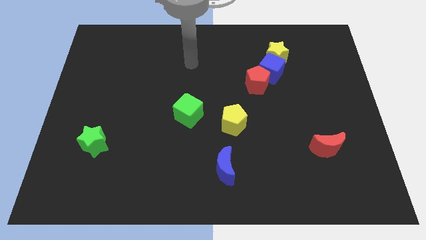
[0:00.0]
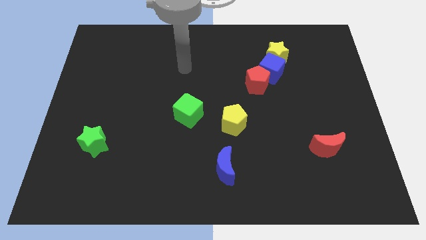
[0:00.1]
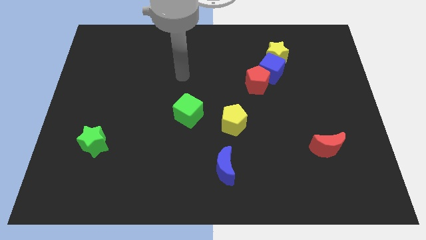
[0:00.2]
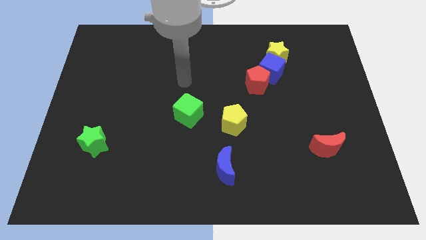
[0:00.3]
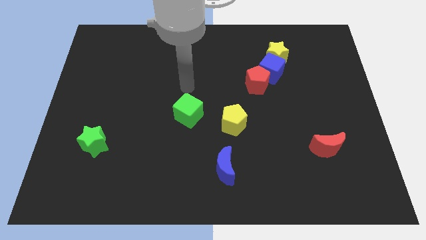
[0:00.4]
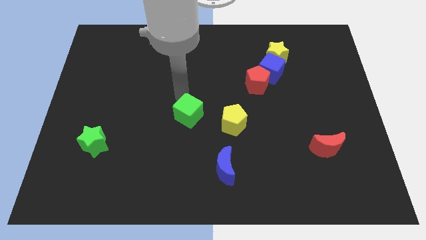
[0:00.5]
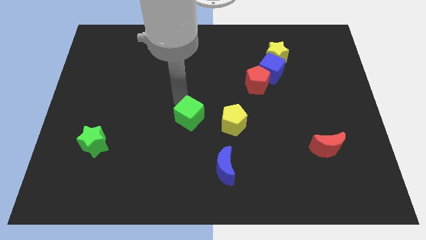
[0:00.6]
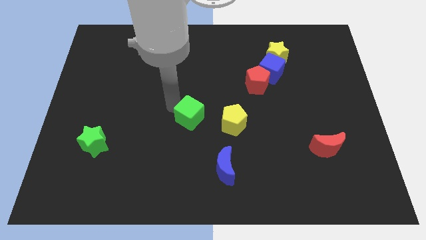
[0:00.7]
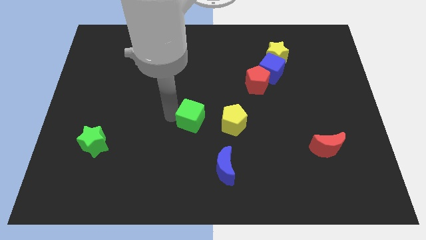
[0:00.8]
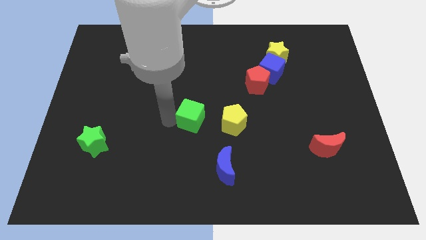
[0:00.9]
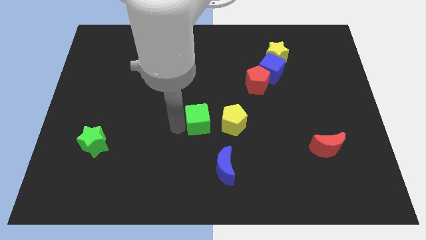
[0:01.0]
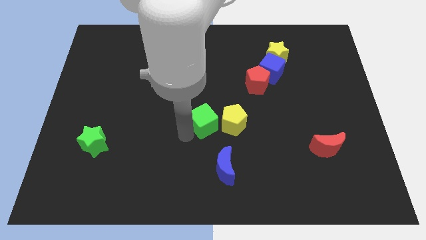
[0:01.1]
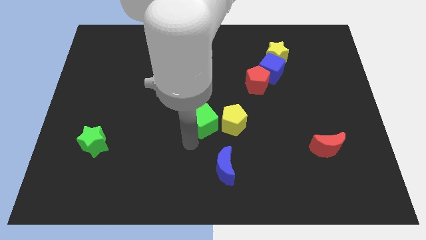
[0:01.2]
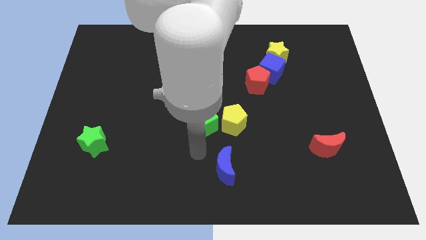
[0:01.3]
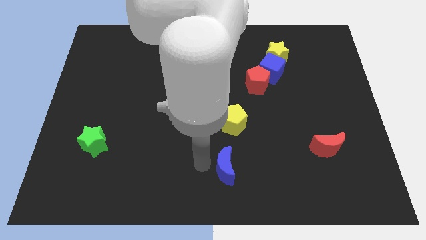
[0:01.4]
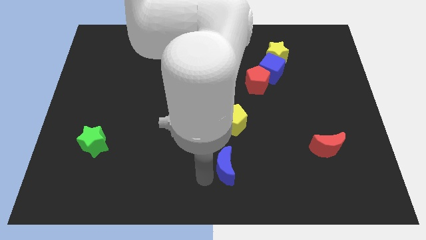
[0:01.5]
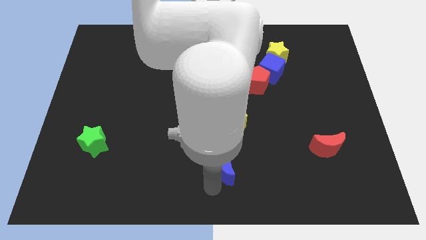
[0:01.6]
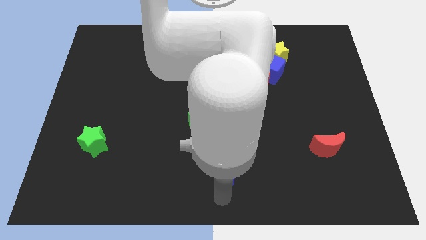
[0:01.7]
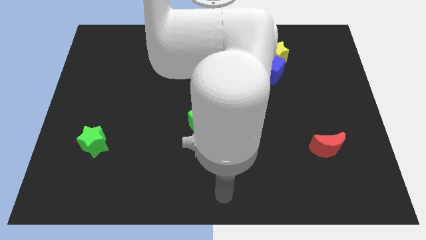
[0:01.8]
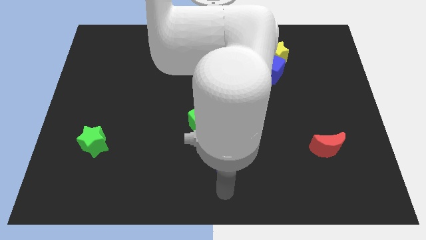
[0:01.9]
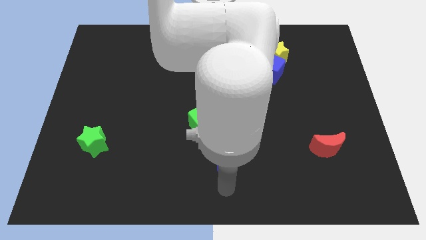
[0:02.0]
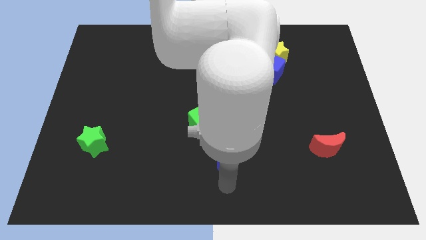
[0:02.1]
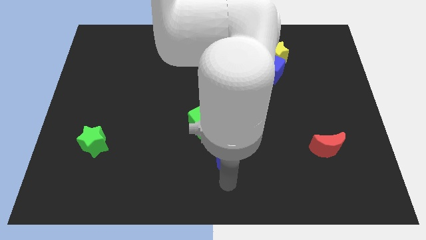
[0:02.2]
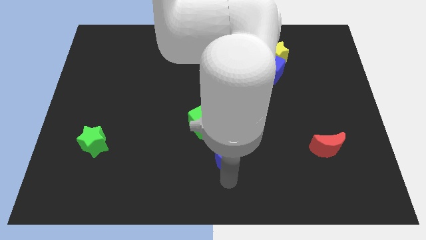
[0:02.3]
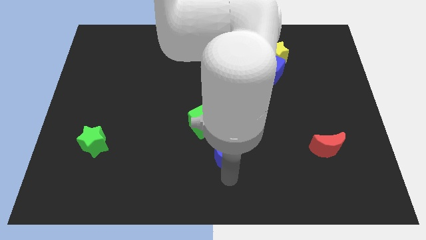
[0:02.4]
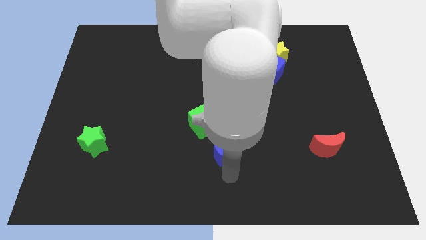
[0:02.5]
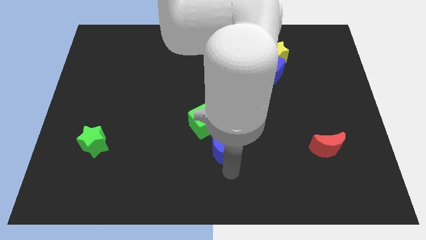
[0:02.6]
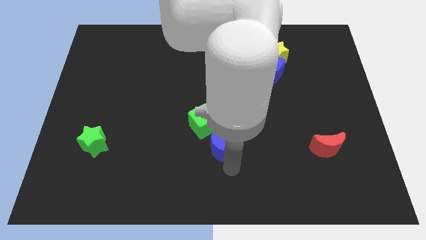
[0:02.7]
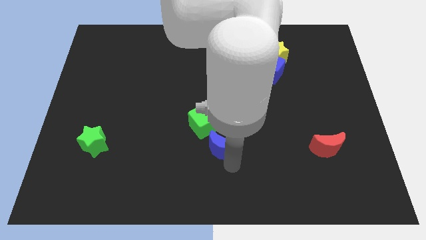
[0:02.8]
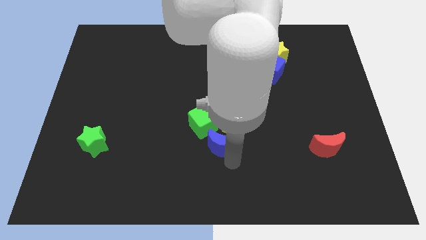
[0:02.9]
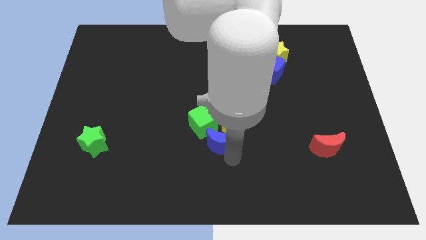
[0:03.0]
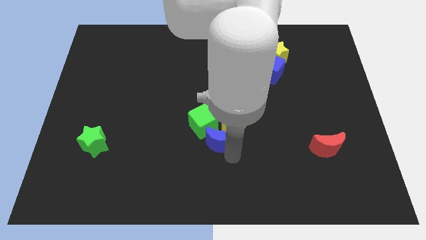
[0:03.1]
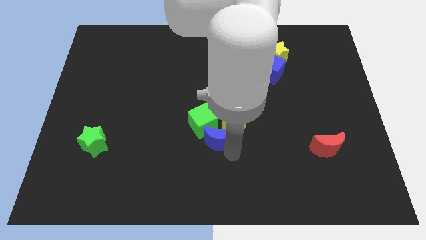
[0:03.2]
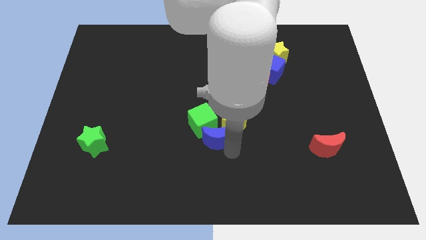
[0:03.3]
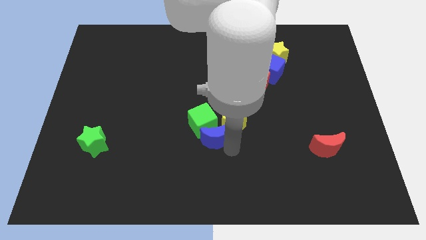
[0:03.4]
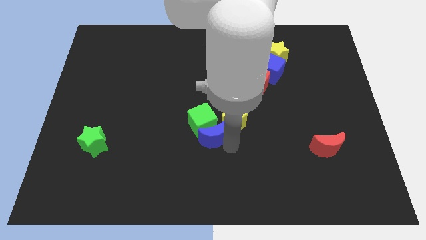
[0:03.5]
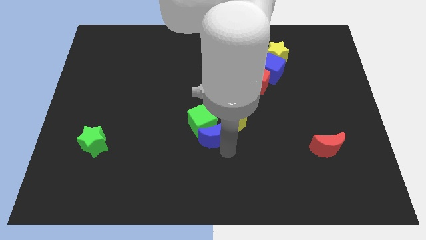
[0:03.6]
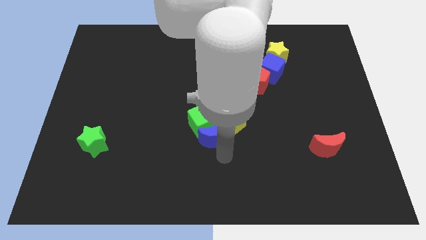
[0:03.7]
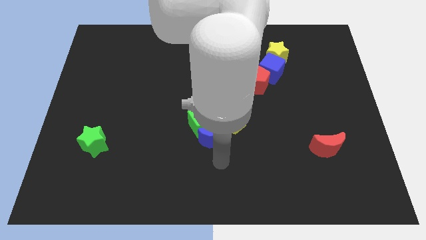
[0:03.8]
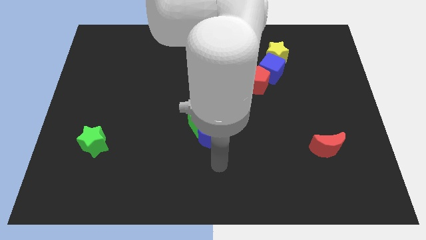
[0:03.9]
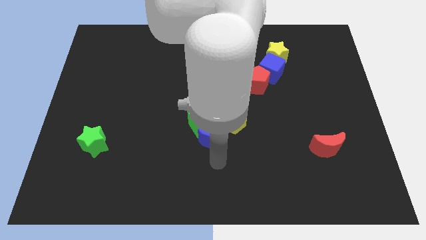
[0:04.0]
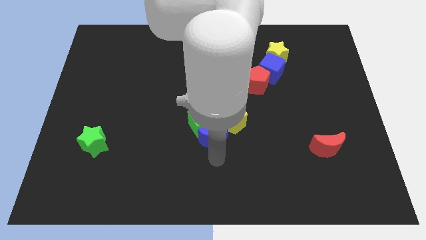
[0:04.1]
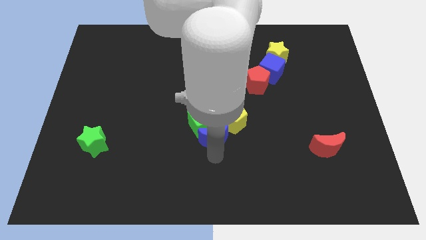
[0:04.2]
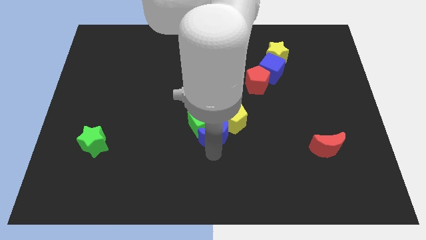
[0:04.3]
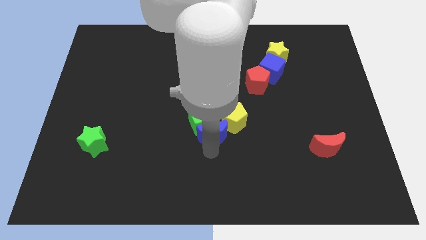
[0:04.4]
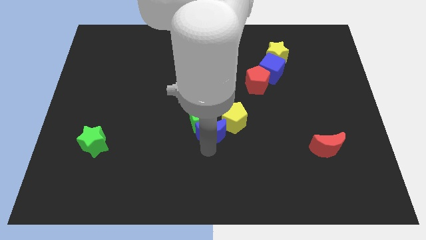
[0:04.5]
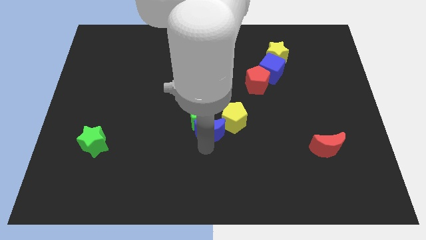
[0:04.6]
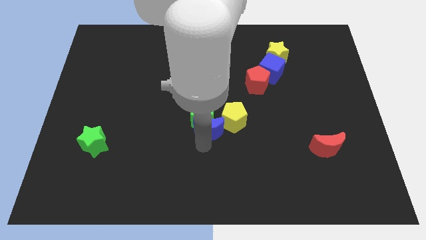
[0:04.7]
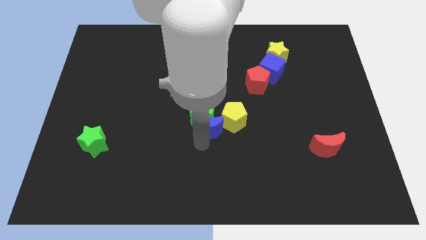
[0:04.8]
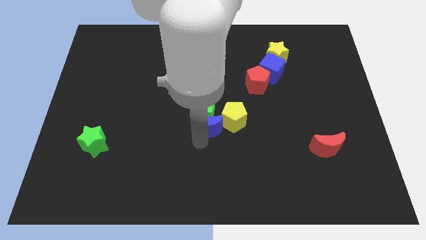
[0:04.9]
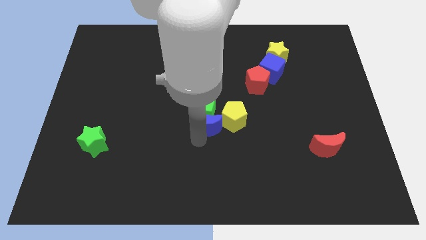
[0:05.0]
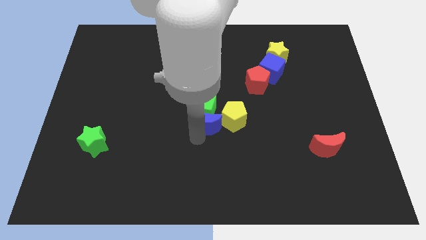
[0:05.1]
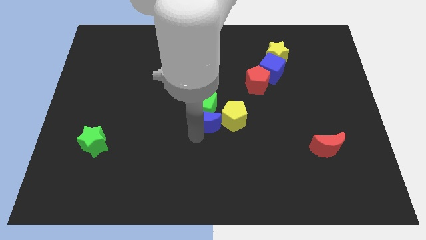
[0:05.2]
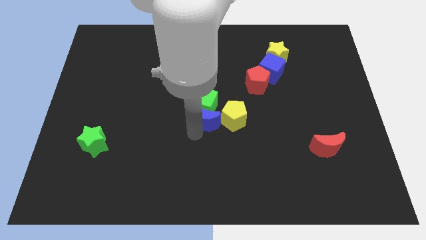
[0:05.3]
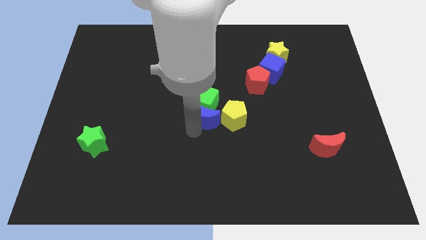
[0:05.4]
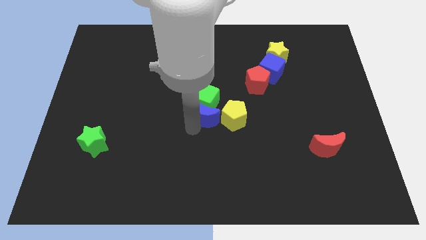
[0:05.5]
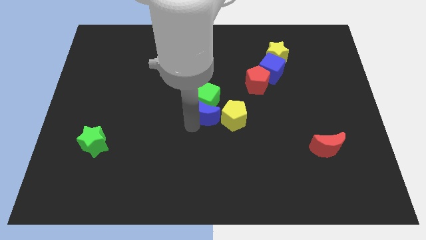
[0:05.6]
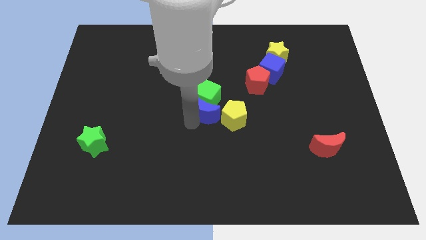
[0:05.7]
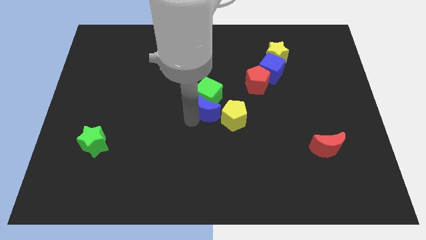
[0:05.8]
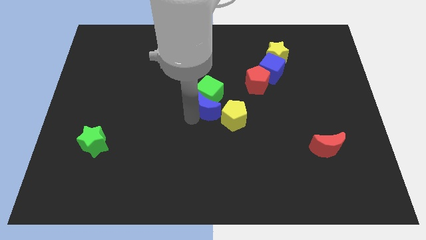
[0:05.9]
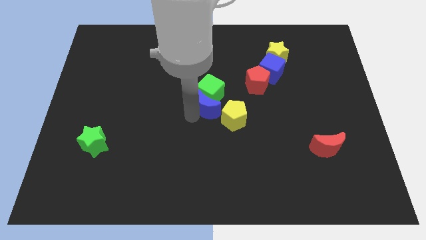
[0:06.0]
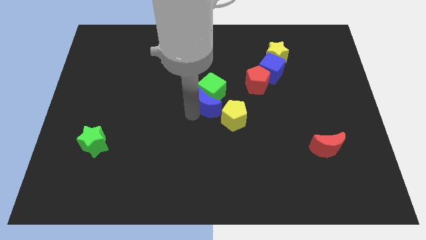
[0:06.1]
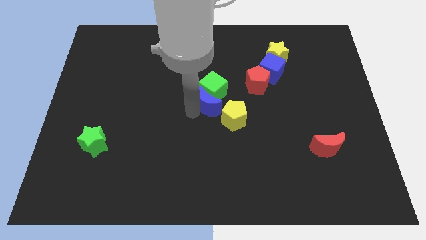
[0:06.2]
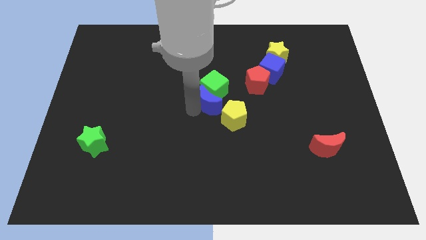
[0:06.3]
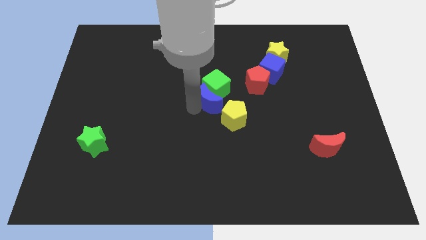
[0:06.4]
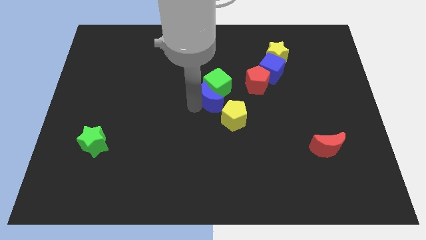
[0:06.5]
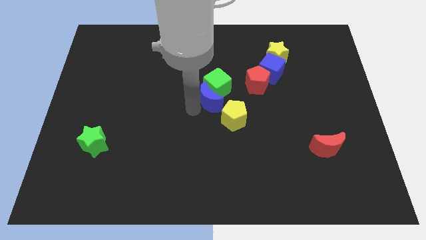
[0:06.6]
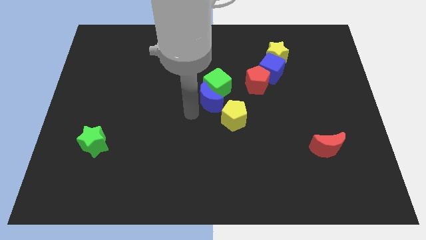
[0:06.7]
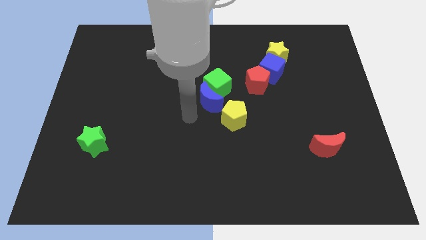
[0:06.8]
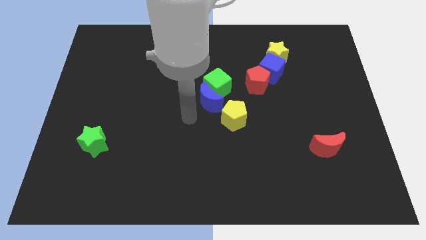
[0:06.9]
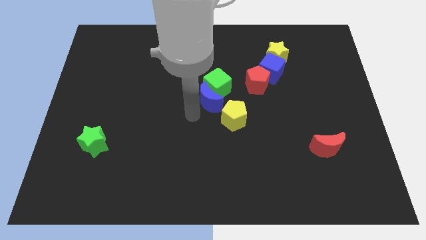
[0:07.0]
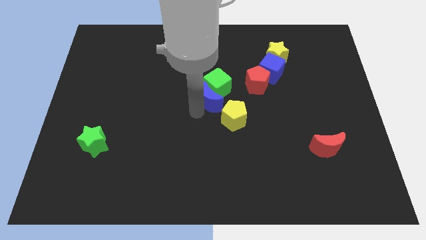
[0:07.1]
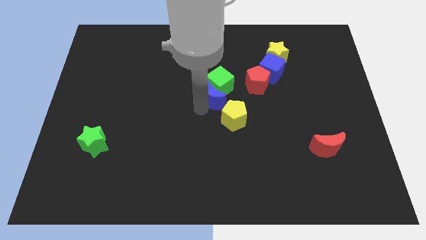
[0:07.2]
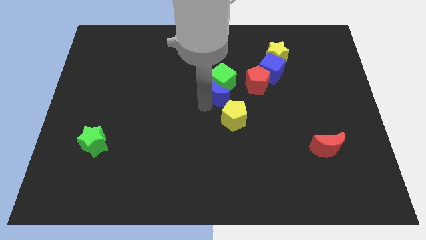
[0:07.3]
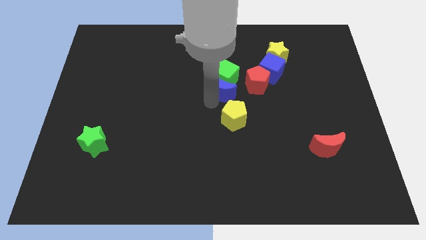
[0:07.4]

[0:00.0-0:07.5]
slide the blue moon up

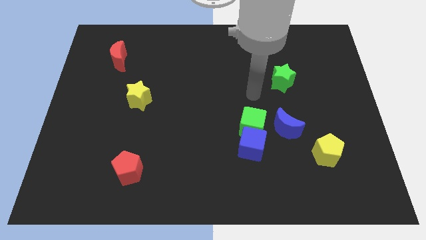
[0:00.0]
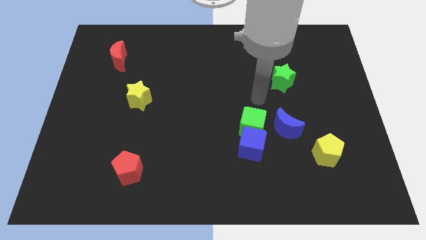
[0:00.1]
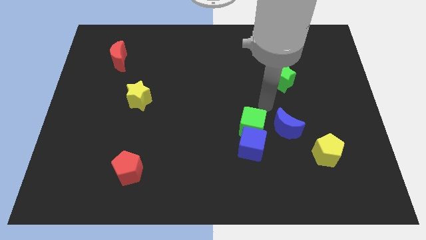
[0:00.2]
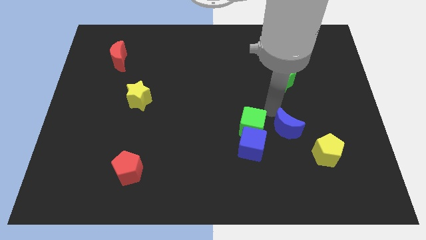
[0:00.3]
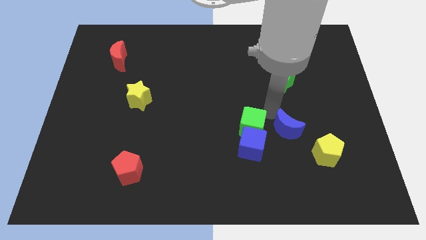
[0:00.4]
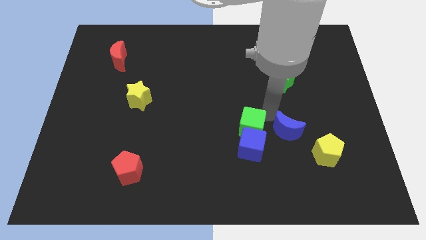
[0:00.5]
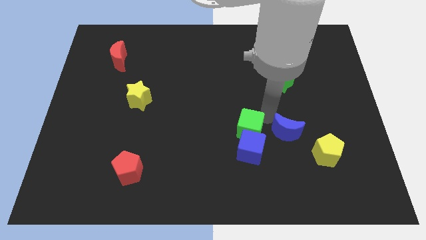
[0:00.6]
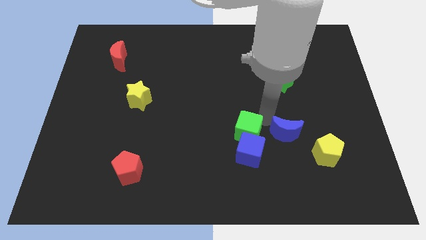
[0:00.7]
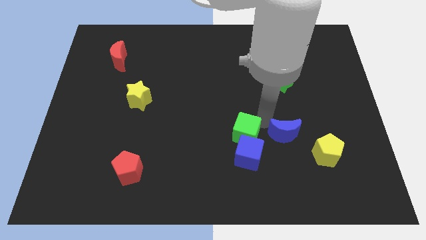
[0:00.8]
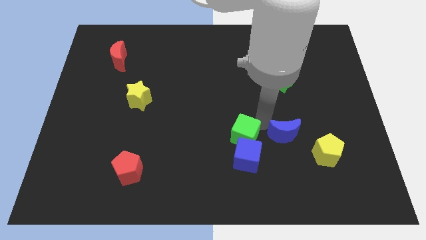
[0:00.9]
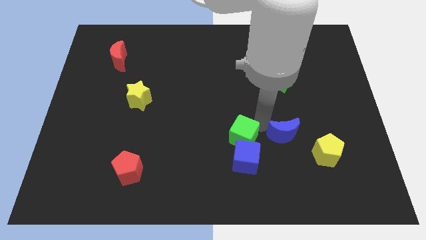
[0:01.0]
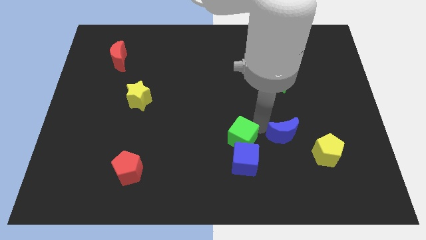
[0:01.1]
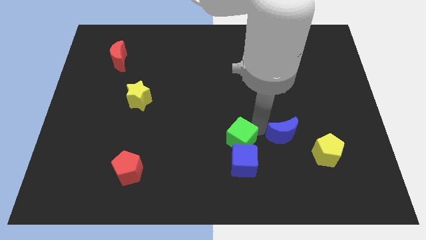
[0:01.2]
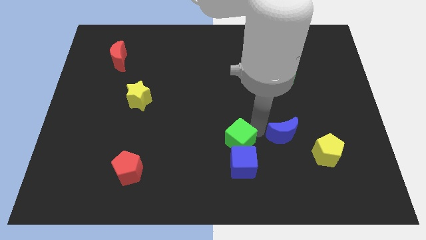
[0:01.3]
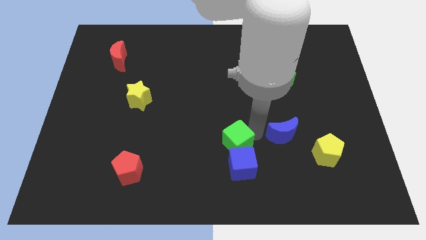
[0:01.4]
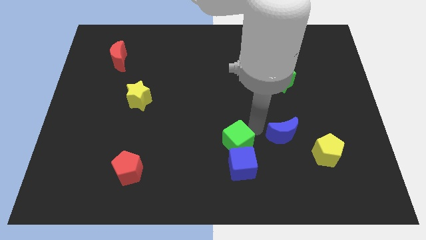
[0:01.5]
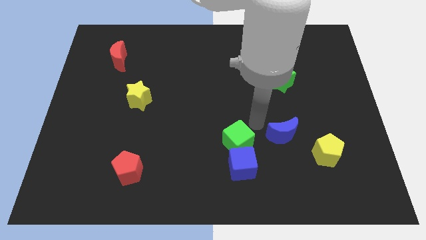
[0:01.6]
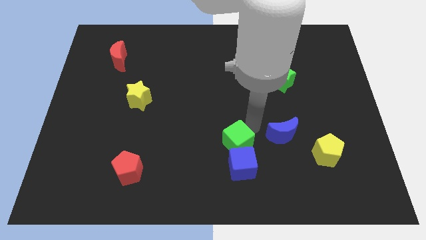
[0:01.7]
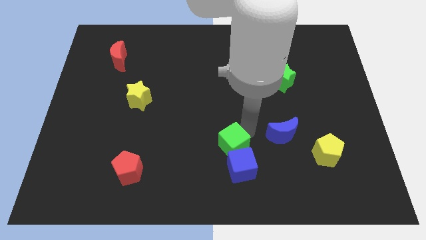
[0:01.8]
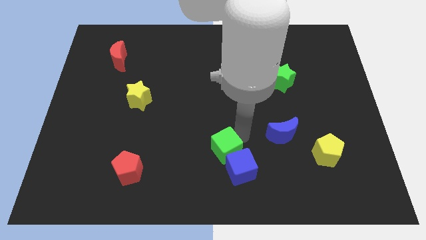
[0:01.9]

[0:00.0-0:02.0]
push the green cube diagonally downwards and to the left a little
